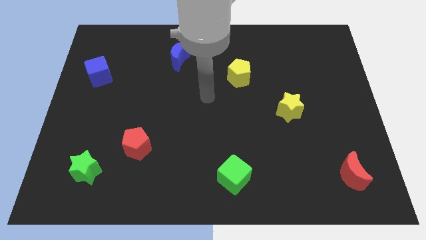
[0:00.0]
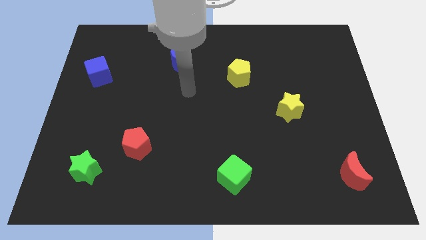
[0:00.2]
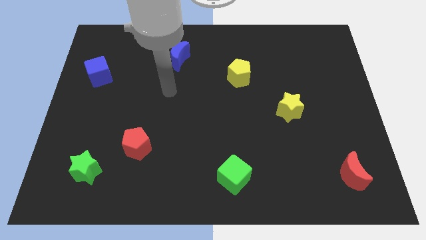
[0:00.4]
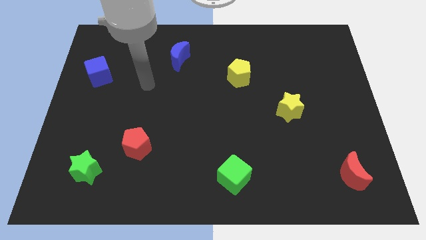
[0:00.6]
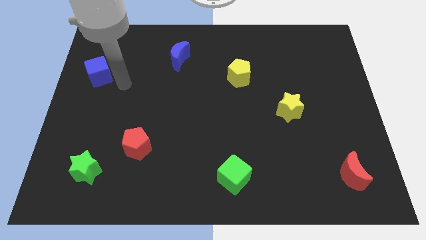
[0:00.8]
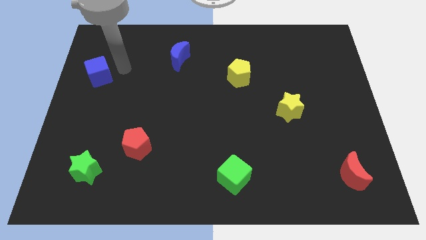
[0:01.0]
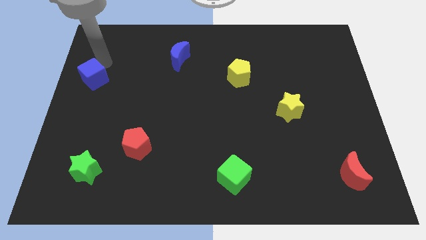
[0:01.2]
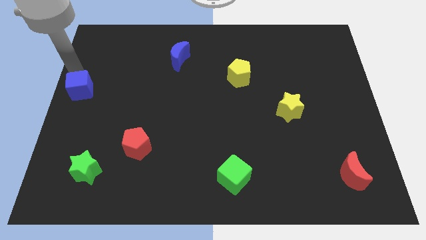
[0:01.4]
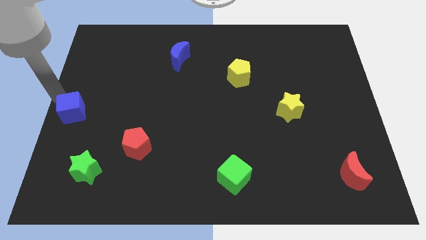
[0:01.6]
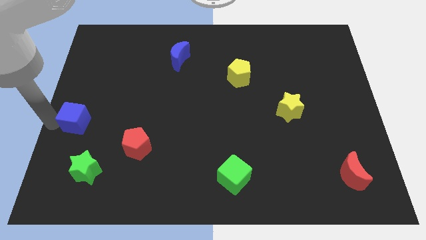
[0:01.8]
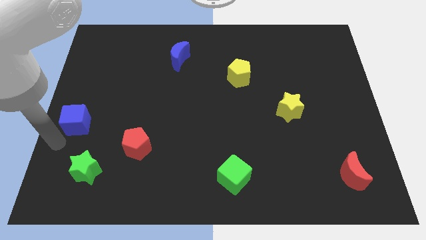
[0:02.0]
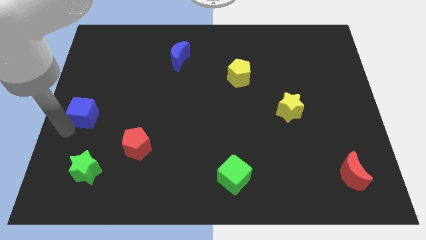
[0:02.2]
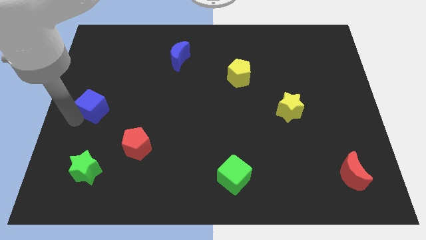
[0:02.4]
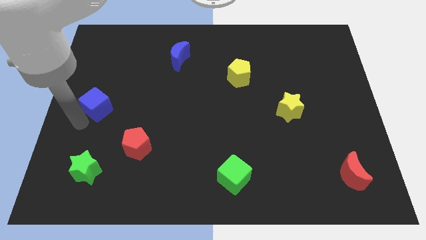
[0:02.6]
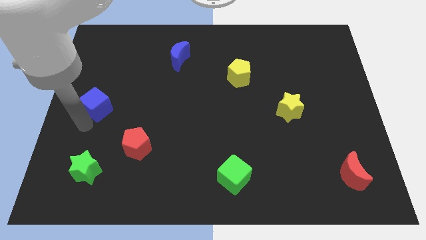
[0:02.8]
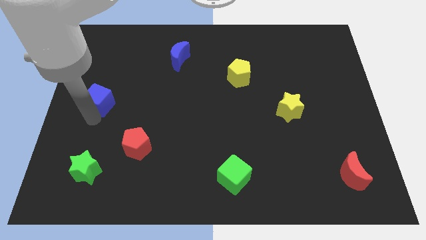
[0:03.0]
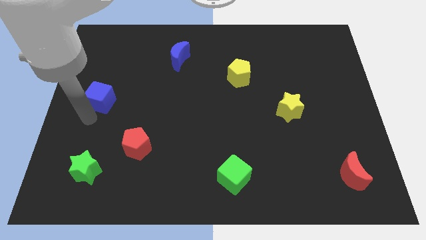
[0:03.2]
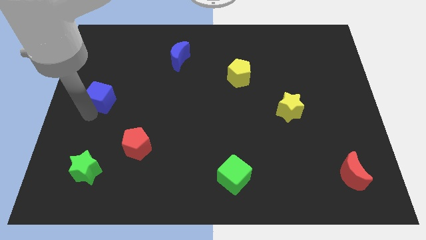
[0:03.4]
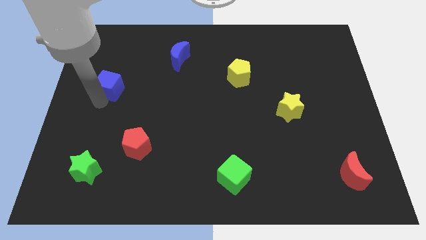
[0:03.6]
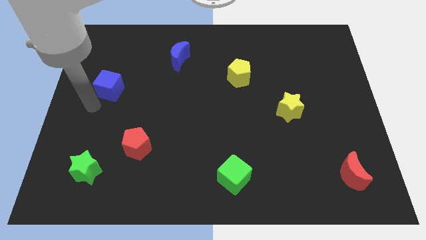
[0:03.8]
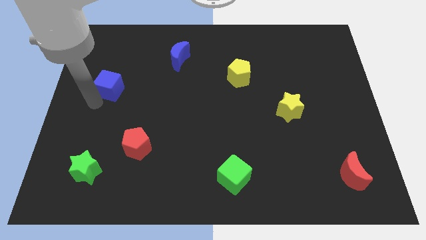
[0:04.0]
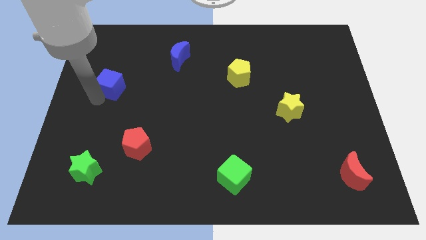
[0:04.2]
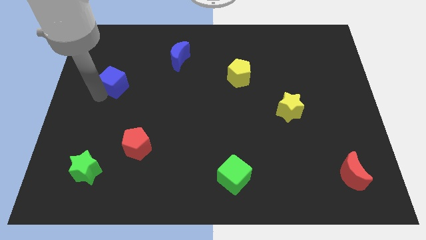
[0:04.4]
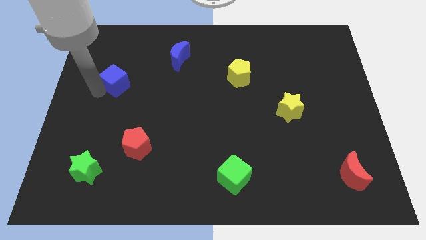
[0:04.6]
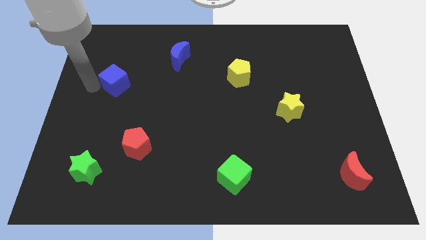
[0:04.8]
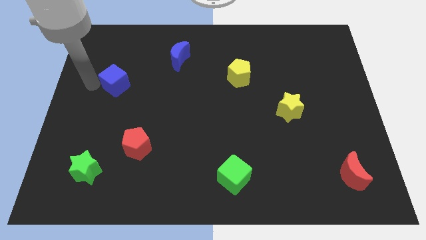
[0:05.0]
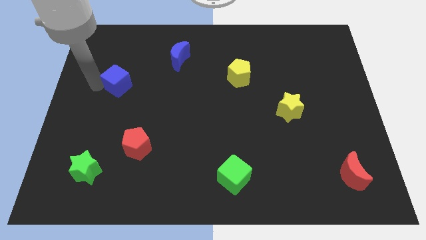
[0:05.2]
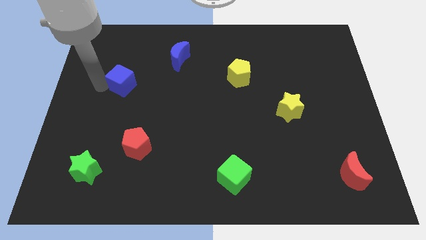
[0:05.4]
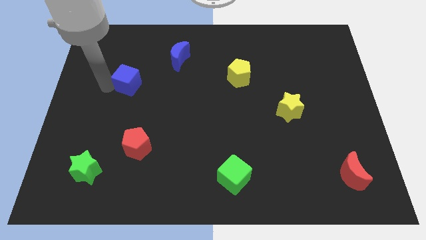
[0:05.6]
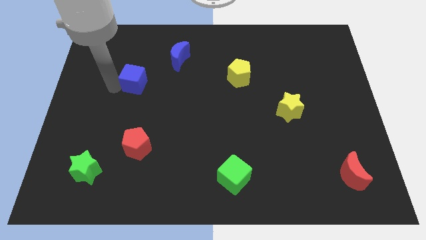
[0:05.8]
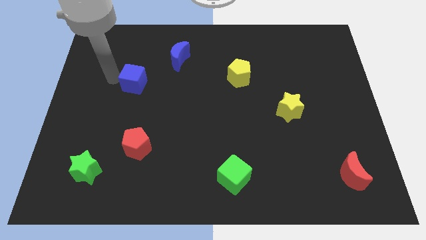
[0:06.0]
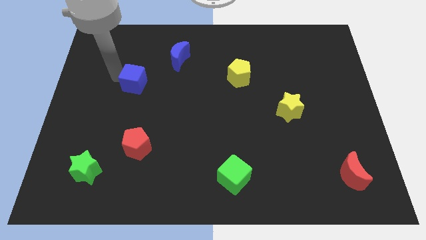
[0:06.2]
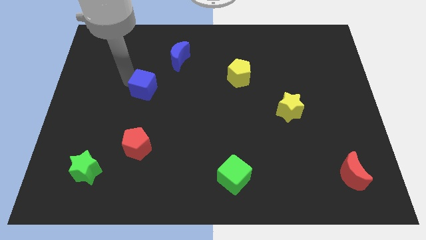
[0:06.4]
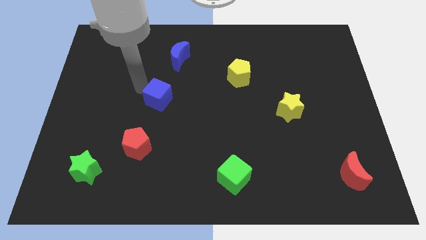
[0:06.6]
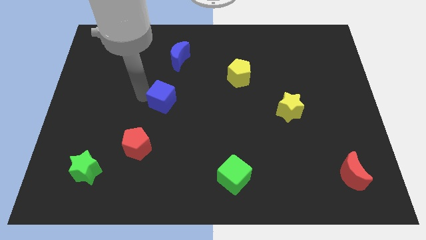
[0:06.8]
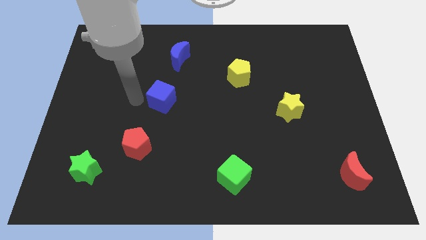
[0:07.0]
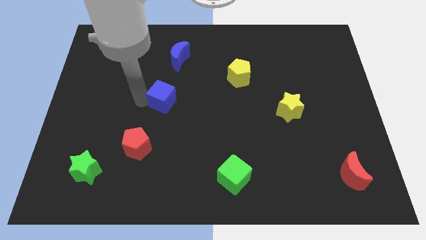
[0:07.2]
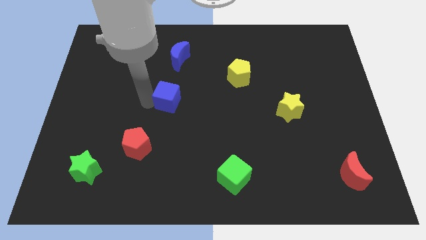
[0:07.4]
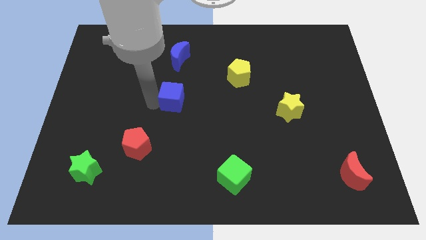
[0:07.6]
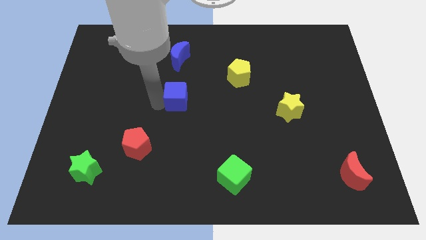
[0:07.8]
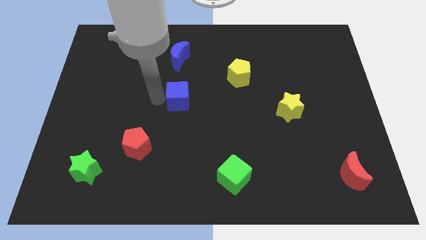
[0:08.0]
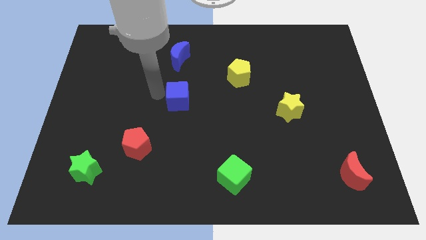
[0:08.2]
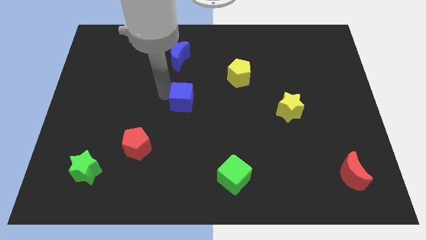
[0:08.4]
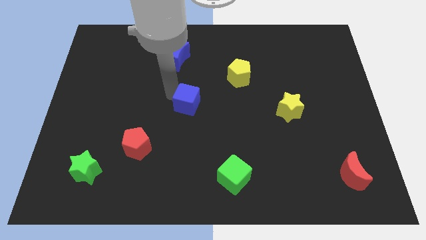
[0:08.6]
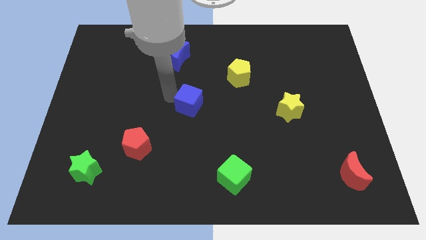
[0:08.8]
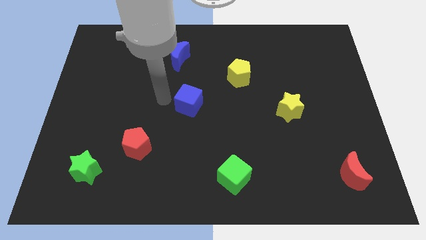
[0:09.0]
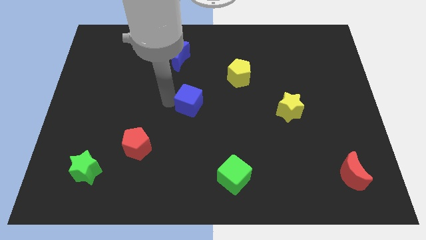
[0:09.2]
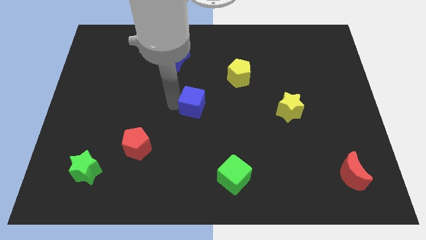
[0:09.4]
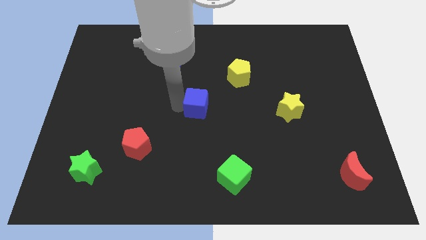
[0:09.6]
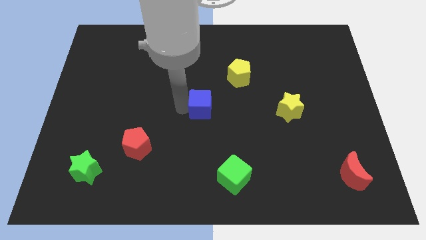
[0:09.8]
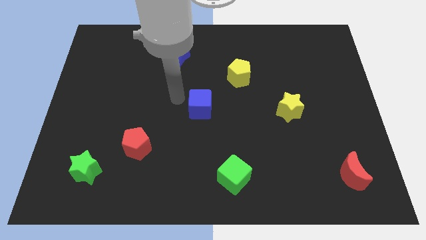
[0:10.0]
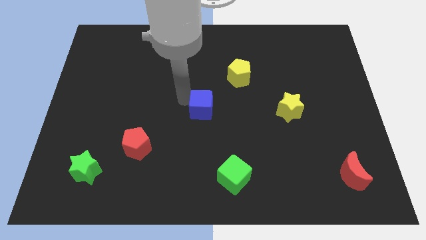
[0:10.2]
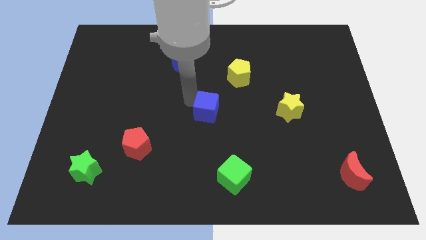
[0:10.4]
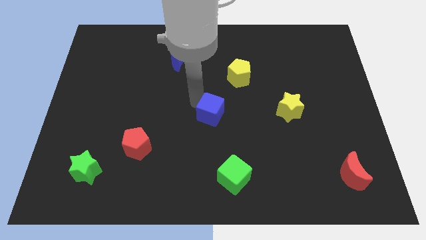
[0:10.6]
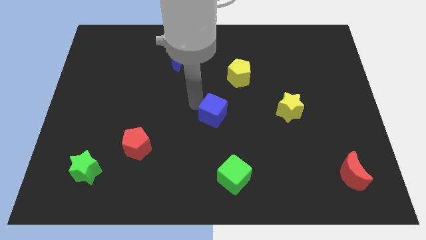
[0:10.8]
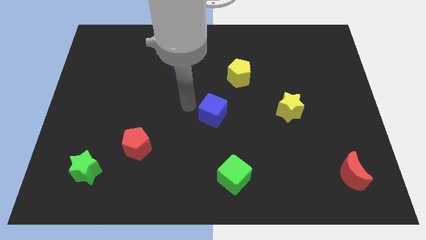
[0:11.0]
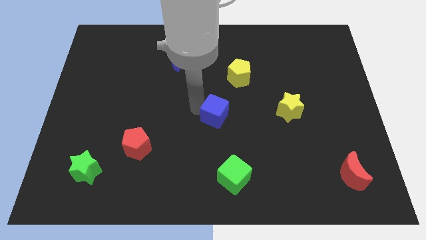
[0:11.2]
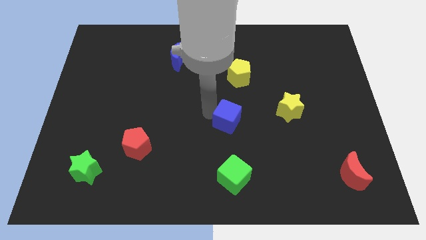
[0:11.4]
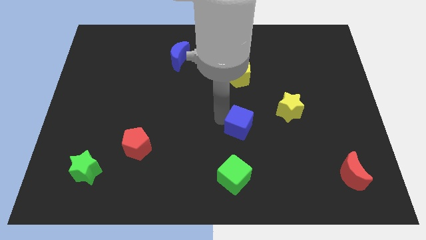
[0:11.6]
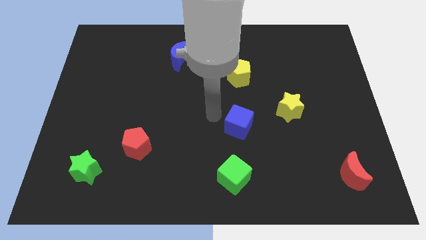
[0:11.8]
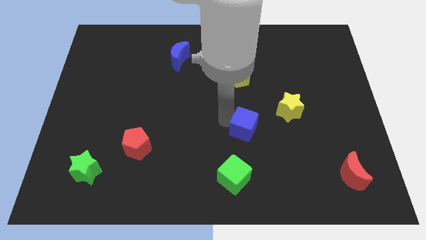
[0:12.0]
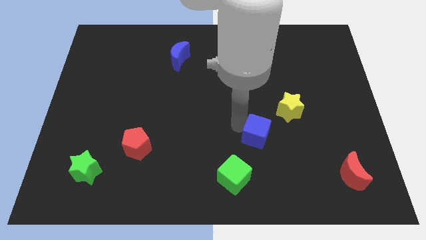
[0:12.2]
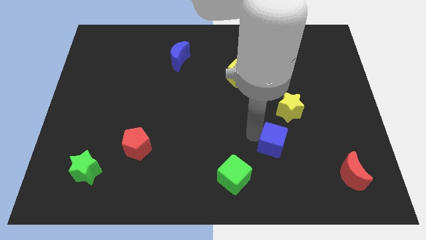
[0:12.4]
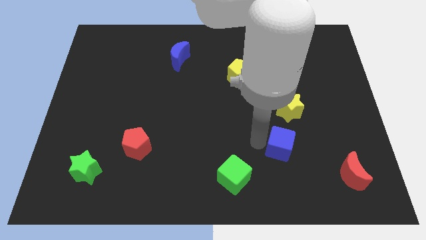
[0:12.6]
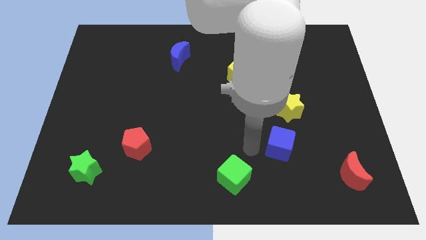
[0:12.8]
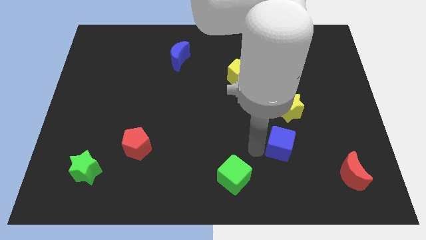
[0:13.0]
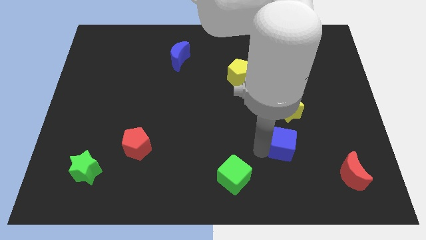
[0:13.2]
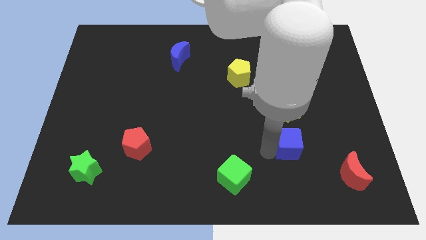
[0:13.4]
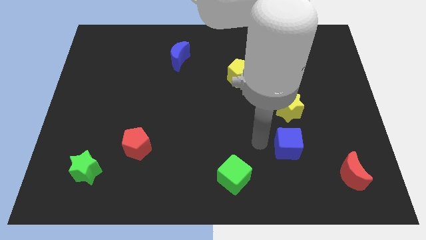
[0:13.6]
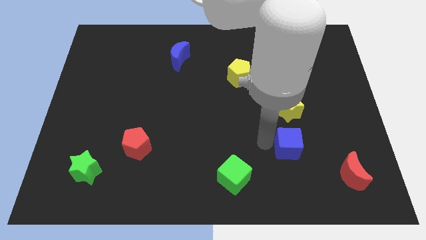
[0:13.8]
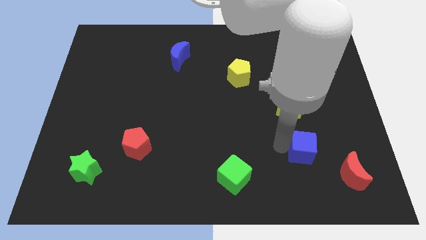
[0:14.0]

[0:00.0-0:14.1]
slide the blue cube to the top left side of the red moon

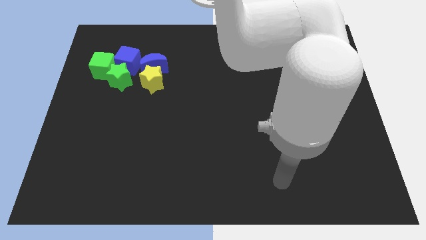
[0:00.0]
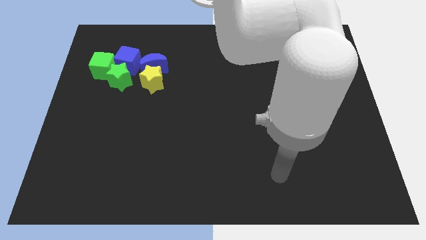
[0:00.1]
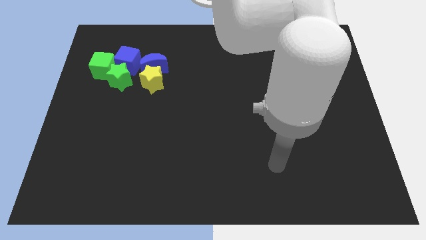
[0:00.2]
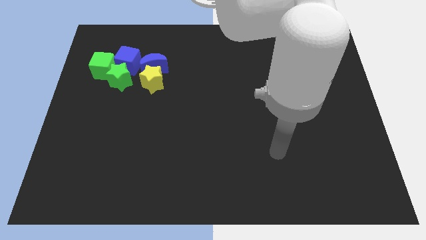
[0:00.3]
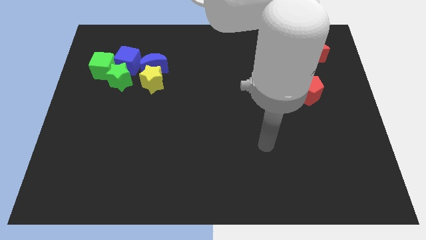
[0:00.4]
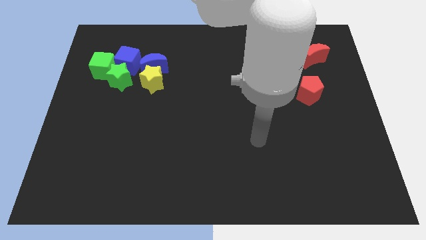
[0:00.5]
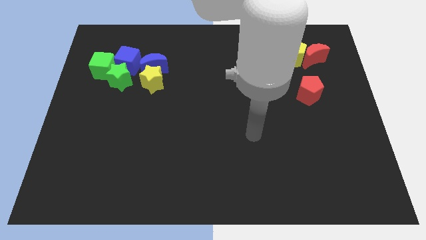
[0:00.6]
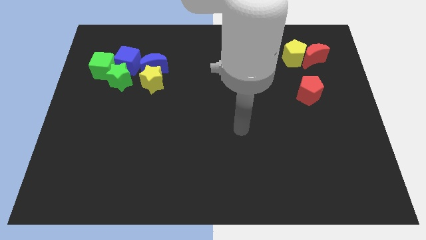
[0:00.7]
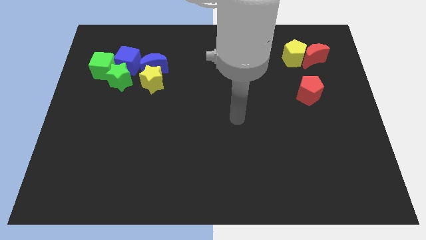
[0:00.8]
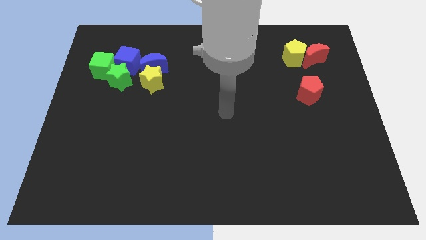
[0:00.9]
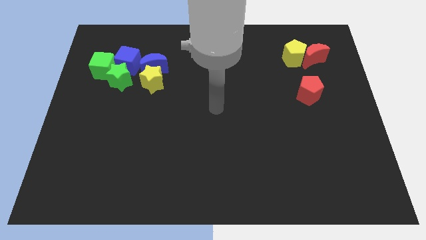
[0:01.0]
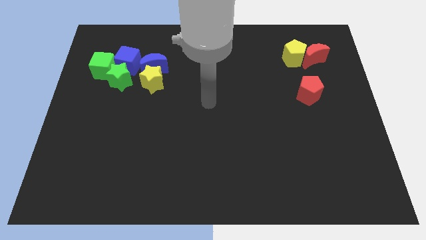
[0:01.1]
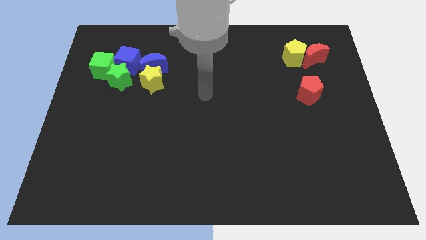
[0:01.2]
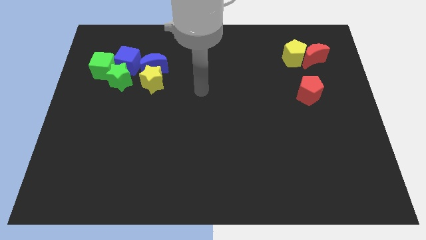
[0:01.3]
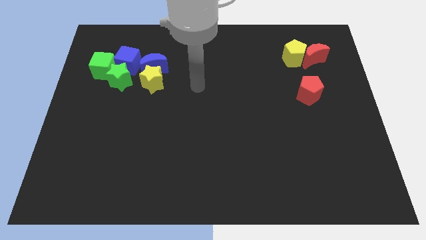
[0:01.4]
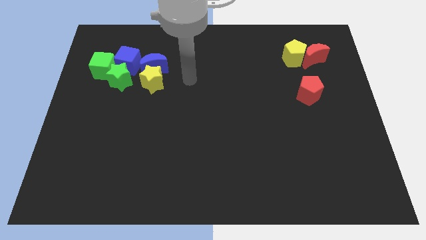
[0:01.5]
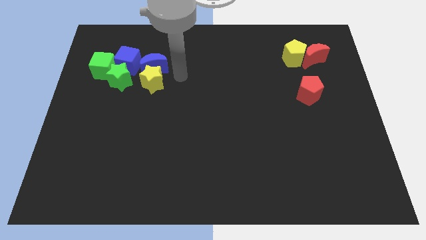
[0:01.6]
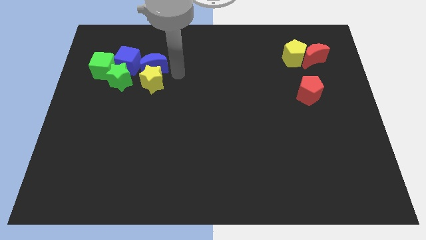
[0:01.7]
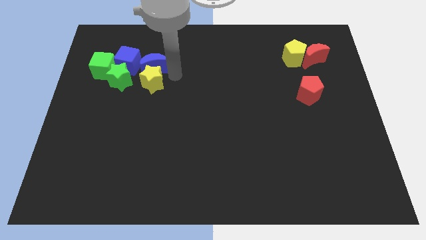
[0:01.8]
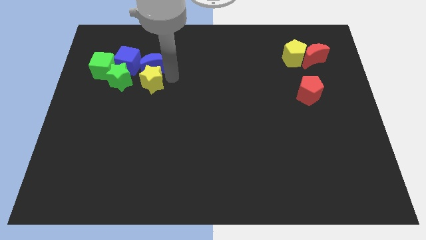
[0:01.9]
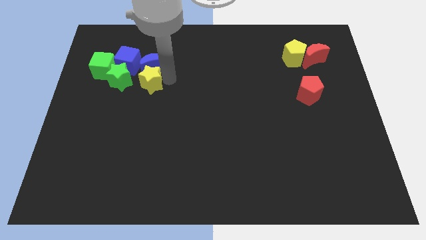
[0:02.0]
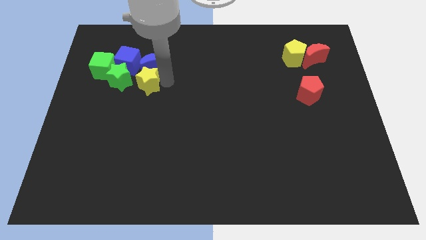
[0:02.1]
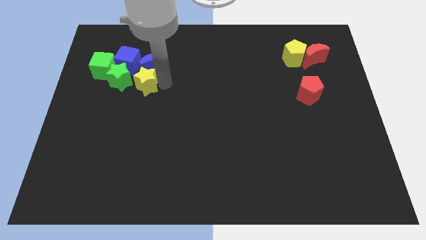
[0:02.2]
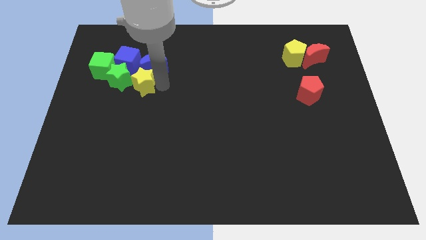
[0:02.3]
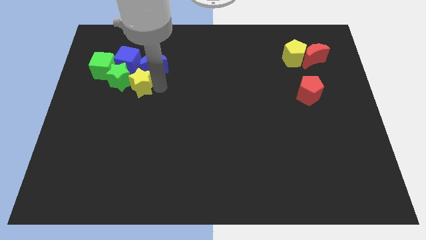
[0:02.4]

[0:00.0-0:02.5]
move the yellow star to the bottom of the blue cube
